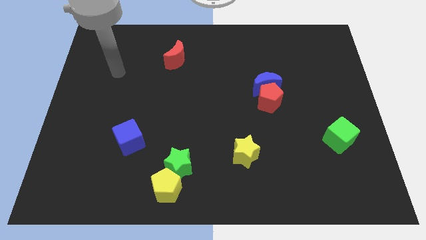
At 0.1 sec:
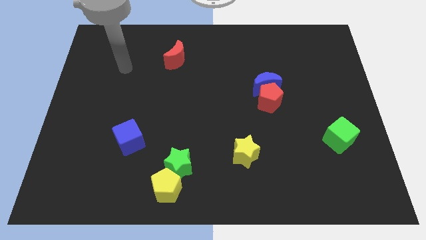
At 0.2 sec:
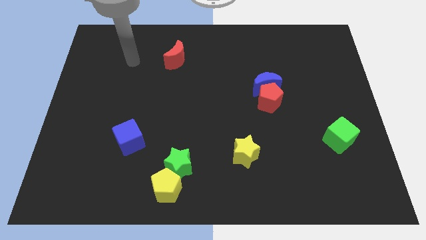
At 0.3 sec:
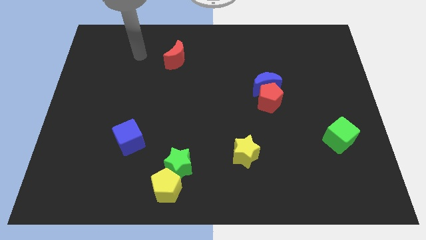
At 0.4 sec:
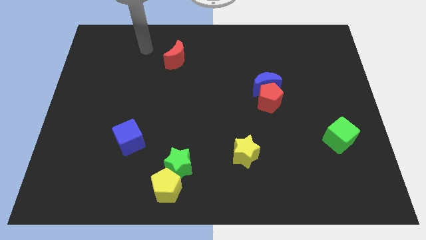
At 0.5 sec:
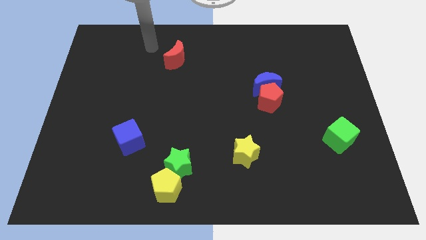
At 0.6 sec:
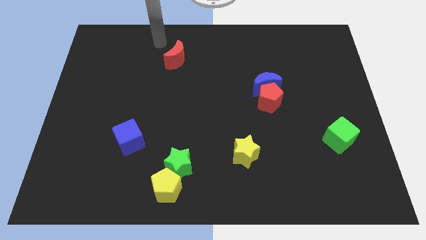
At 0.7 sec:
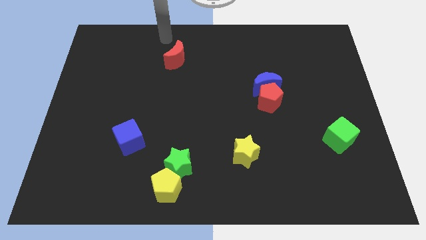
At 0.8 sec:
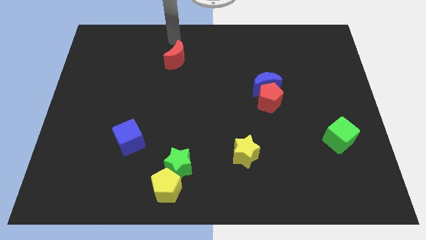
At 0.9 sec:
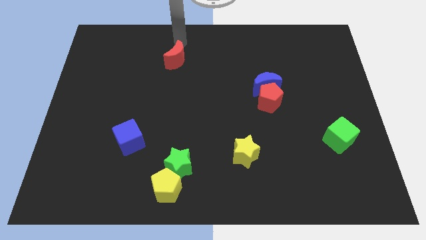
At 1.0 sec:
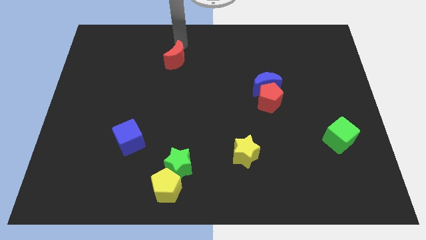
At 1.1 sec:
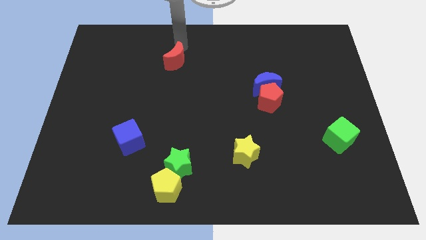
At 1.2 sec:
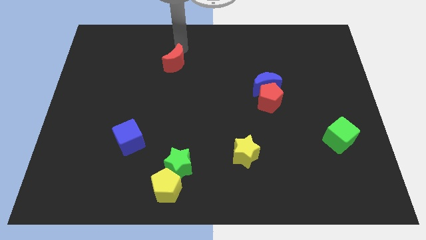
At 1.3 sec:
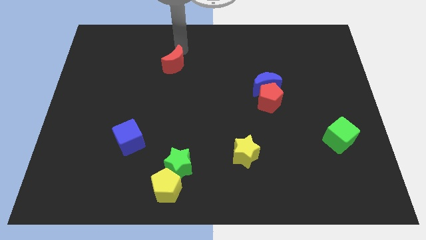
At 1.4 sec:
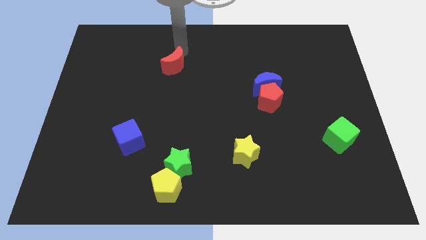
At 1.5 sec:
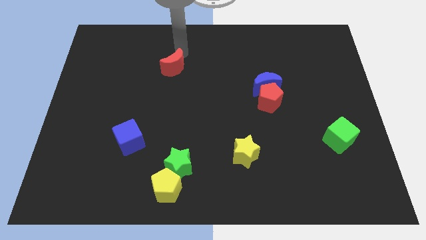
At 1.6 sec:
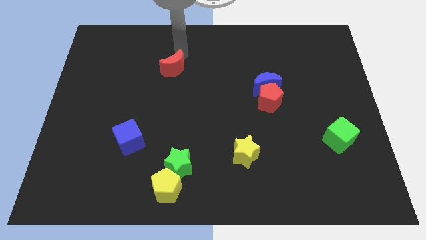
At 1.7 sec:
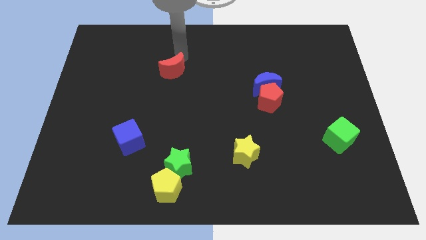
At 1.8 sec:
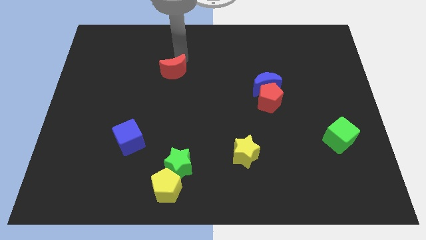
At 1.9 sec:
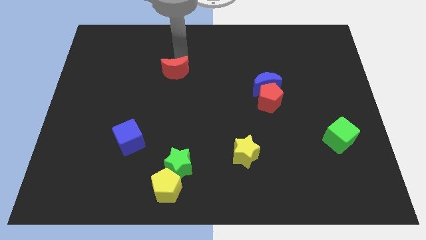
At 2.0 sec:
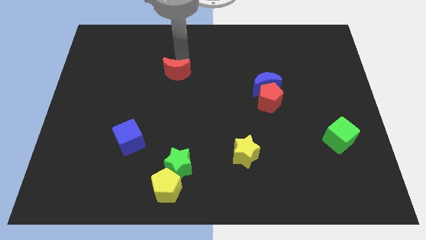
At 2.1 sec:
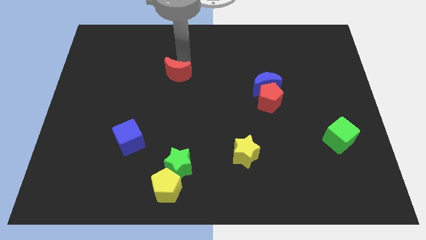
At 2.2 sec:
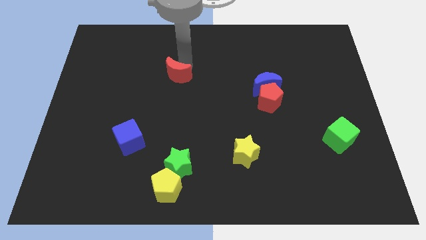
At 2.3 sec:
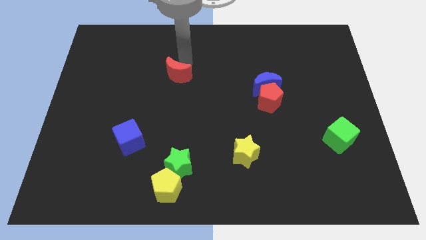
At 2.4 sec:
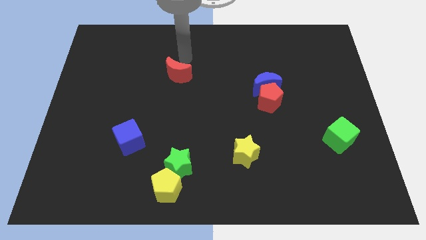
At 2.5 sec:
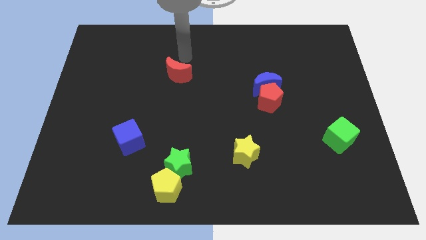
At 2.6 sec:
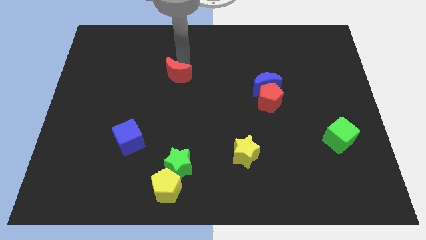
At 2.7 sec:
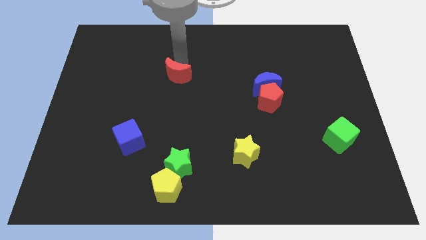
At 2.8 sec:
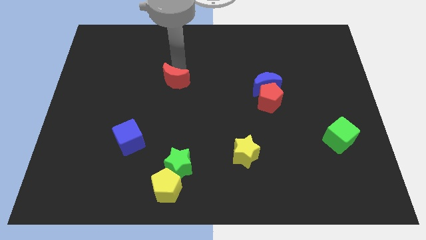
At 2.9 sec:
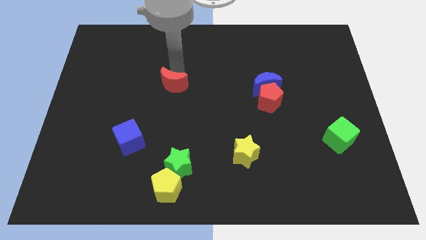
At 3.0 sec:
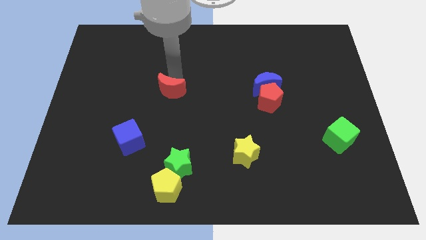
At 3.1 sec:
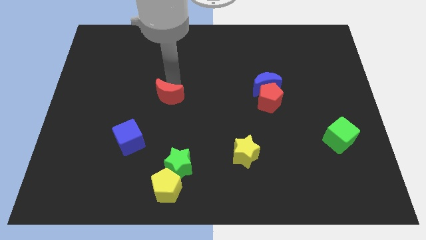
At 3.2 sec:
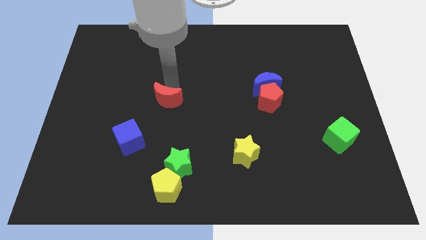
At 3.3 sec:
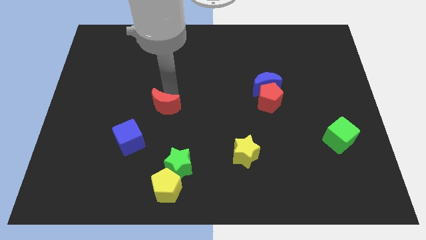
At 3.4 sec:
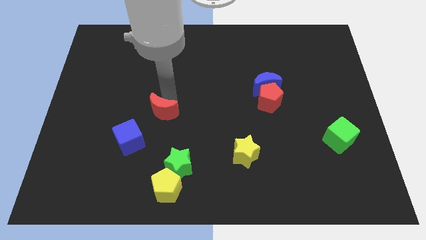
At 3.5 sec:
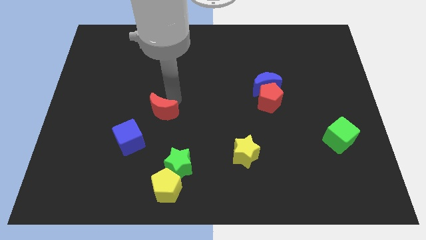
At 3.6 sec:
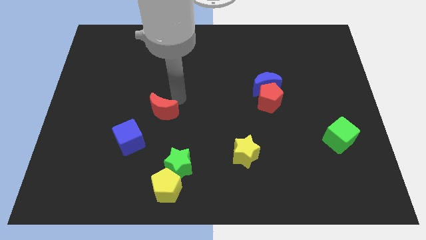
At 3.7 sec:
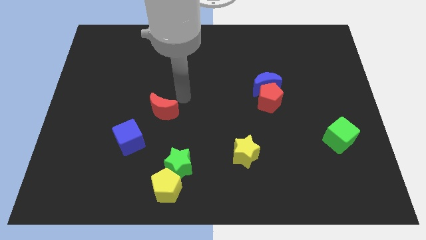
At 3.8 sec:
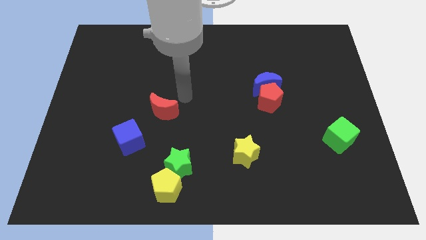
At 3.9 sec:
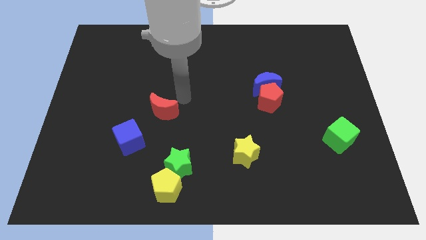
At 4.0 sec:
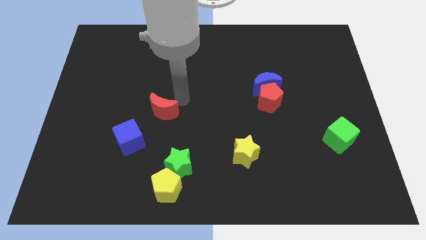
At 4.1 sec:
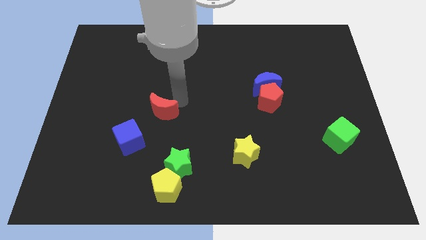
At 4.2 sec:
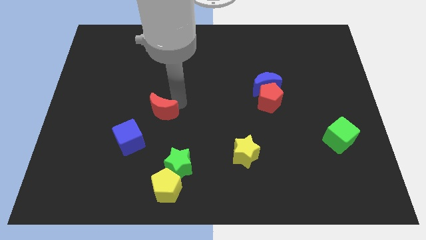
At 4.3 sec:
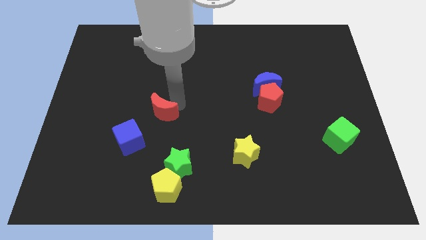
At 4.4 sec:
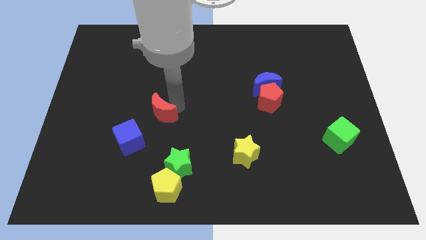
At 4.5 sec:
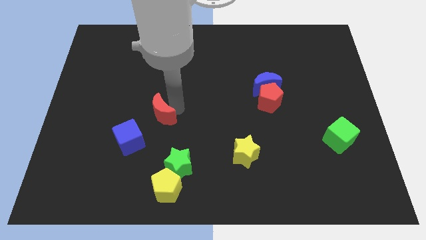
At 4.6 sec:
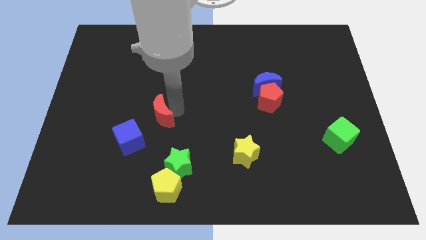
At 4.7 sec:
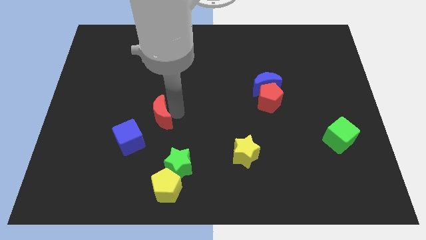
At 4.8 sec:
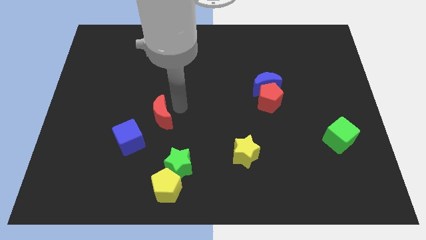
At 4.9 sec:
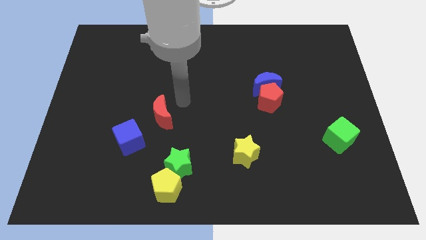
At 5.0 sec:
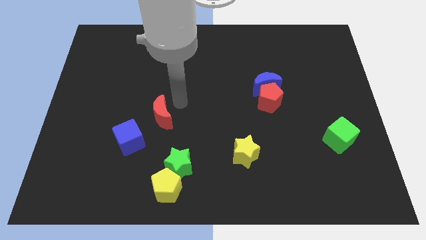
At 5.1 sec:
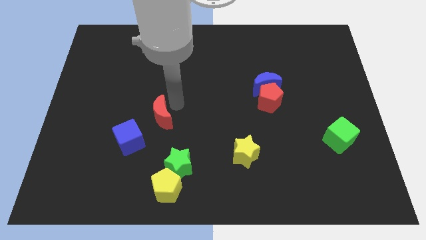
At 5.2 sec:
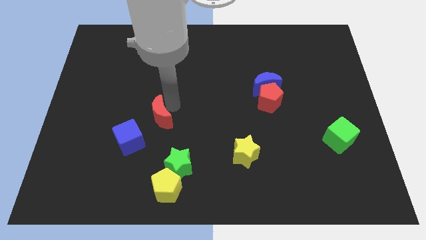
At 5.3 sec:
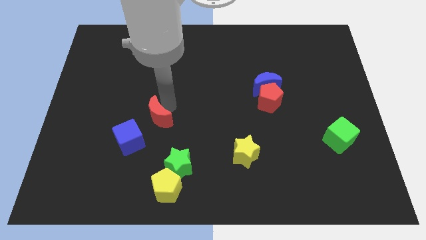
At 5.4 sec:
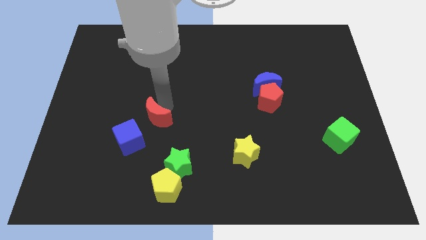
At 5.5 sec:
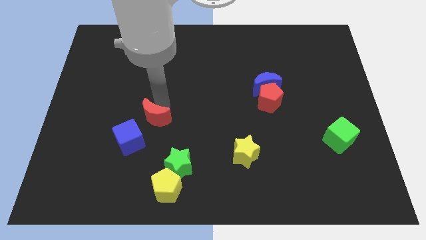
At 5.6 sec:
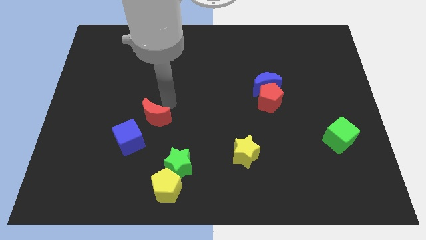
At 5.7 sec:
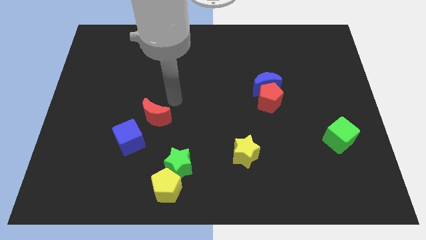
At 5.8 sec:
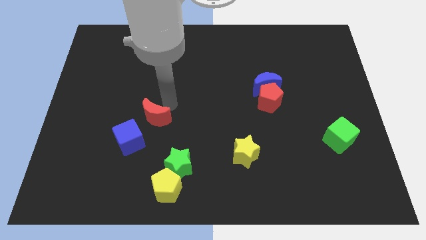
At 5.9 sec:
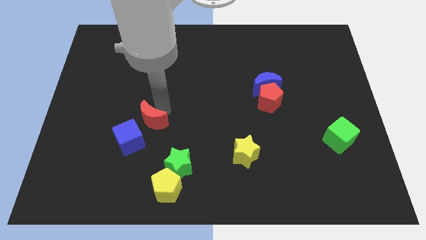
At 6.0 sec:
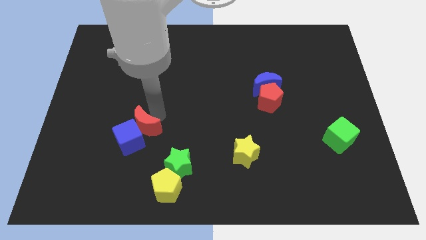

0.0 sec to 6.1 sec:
slide the red moon towards the blue cube

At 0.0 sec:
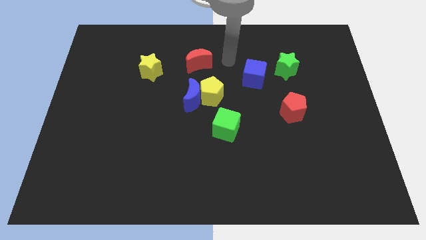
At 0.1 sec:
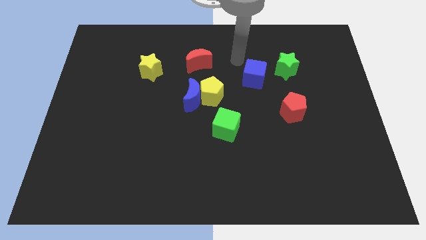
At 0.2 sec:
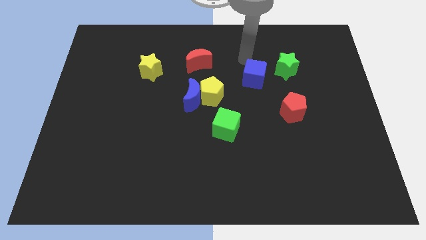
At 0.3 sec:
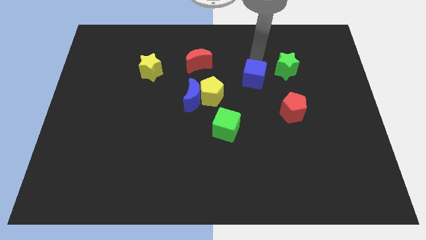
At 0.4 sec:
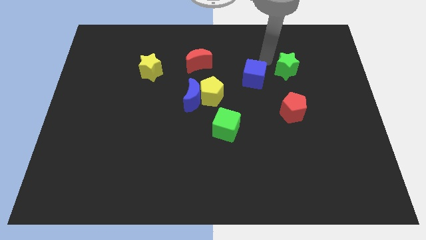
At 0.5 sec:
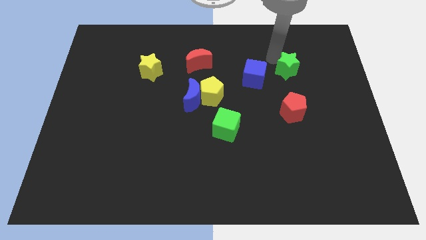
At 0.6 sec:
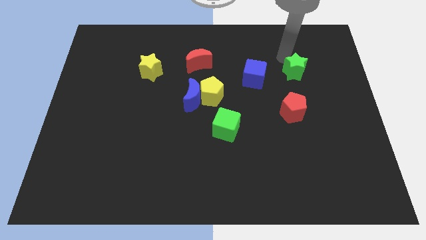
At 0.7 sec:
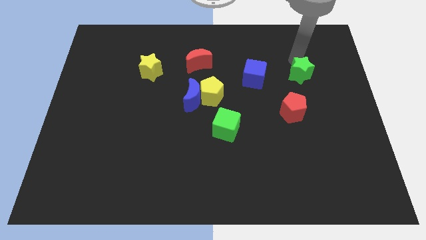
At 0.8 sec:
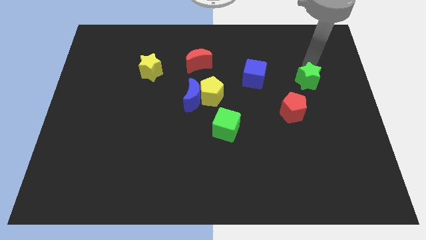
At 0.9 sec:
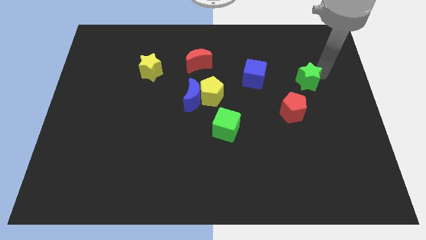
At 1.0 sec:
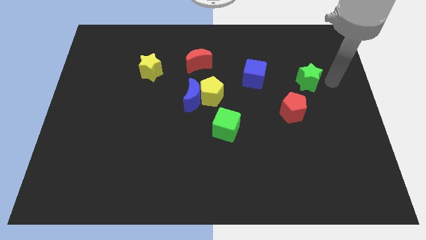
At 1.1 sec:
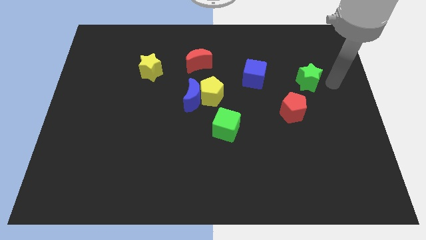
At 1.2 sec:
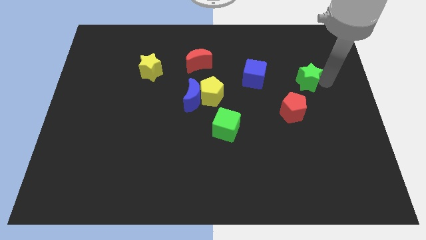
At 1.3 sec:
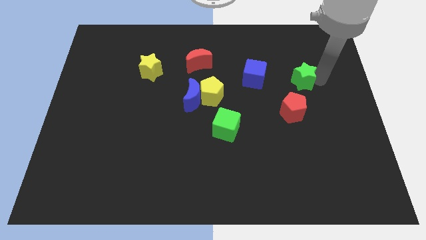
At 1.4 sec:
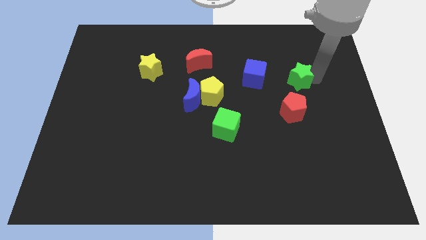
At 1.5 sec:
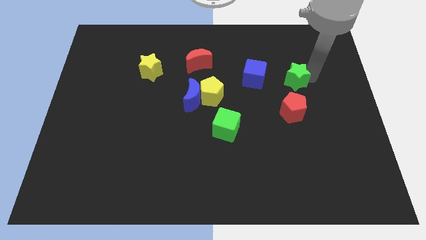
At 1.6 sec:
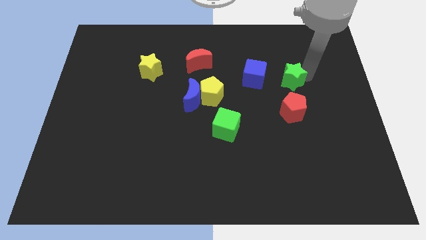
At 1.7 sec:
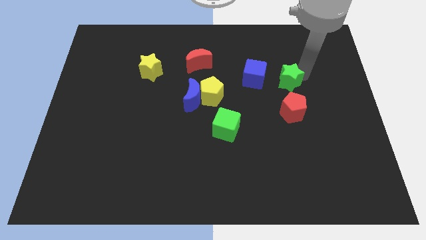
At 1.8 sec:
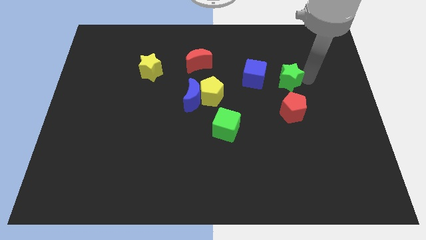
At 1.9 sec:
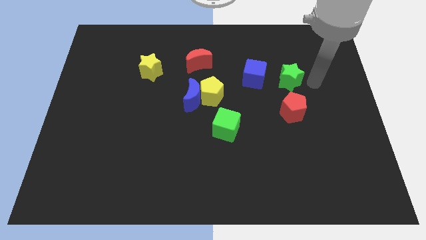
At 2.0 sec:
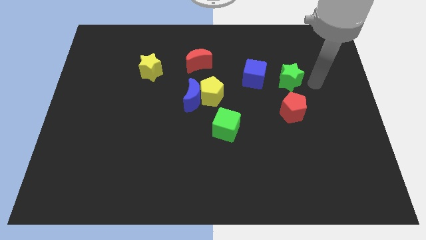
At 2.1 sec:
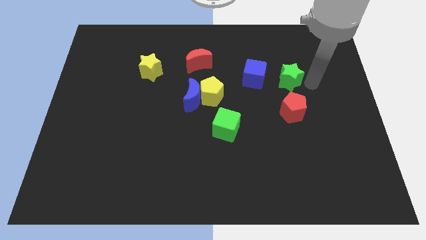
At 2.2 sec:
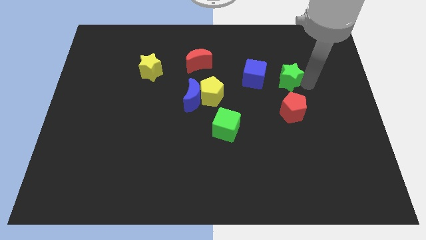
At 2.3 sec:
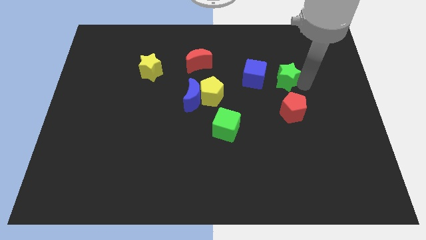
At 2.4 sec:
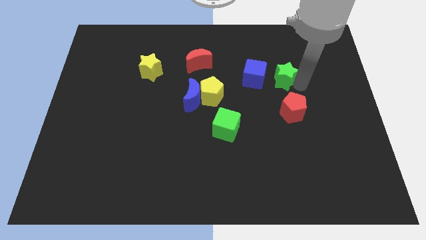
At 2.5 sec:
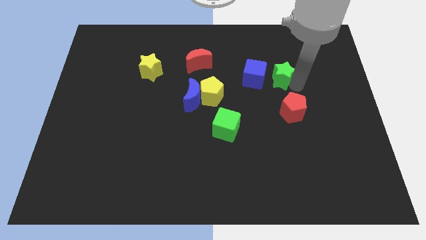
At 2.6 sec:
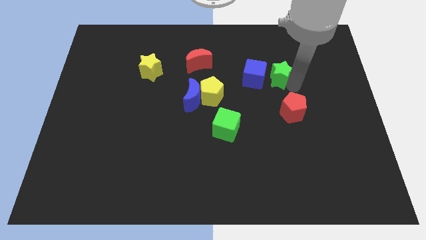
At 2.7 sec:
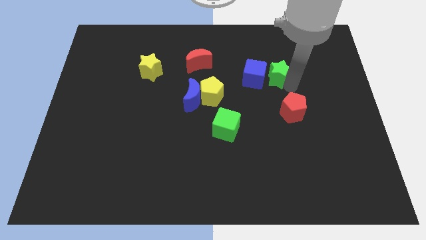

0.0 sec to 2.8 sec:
put the green star to the blue cube
